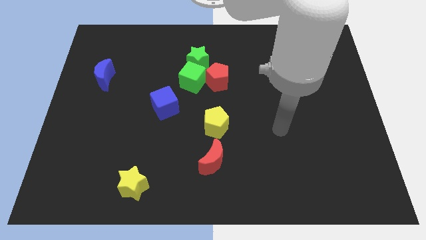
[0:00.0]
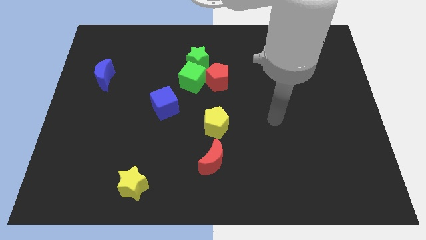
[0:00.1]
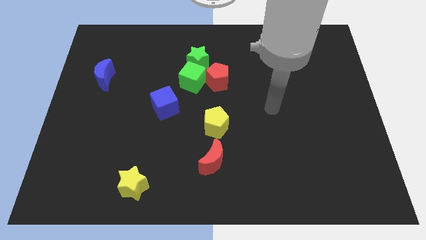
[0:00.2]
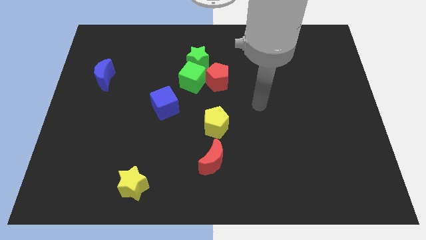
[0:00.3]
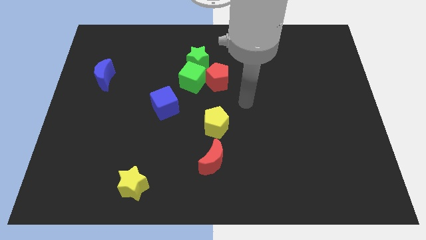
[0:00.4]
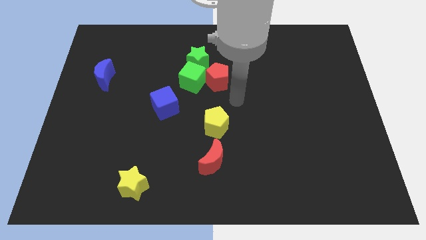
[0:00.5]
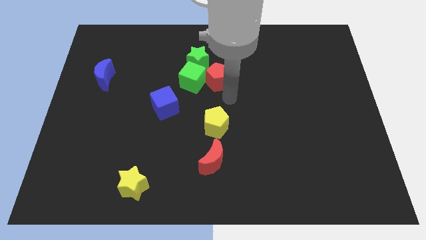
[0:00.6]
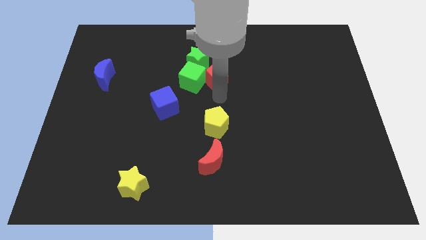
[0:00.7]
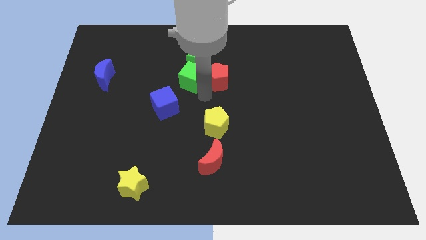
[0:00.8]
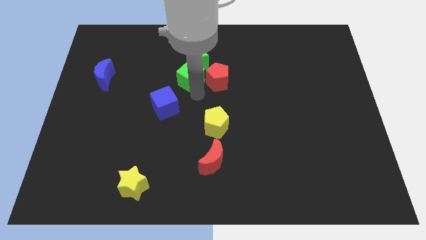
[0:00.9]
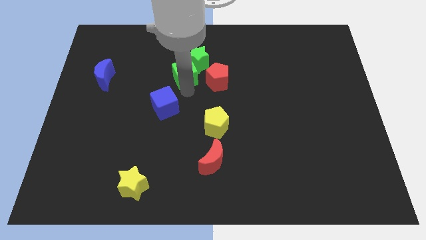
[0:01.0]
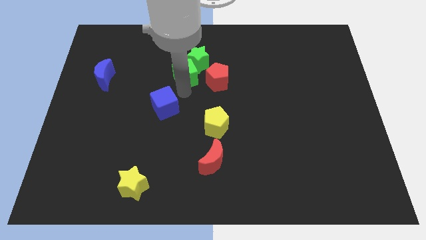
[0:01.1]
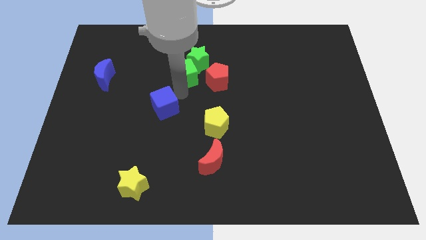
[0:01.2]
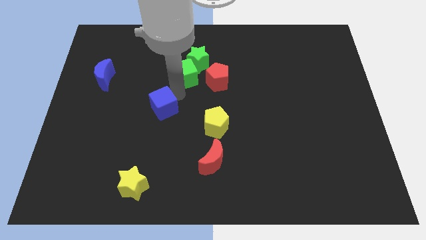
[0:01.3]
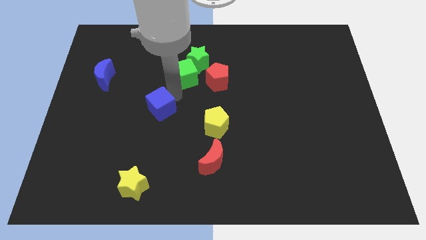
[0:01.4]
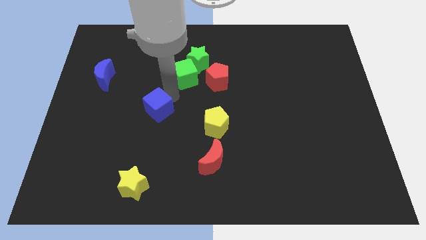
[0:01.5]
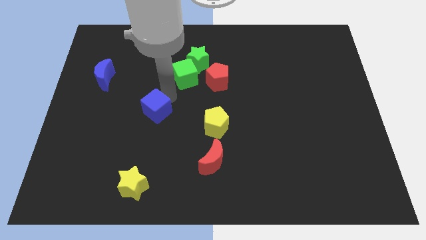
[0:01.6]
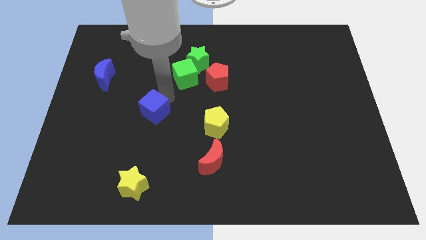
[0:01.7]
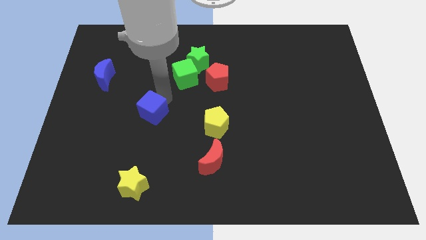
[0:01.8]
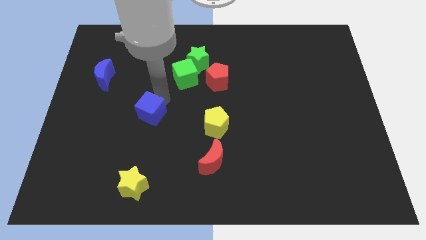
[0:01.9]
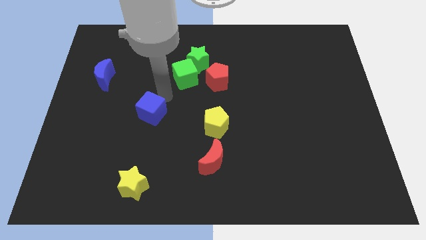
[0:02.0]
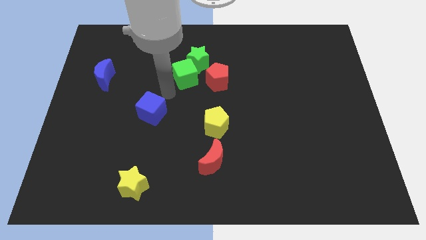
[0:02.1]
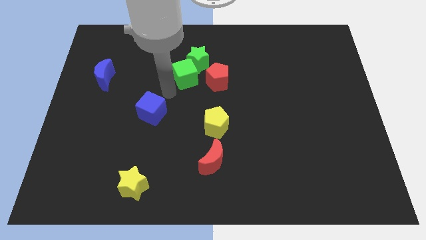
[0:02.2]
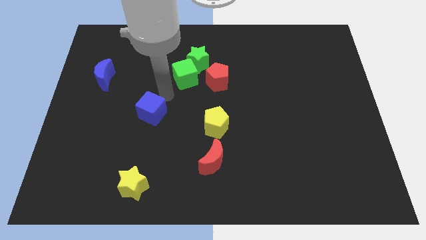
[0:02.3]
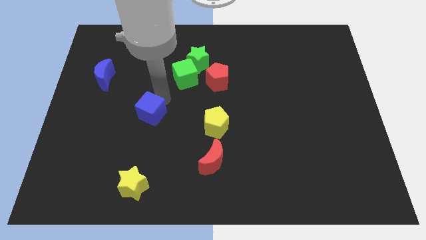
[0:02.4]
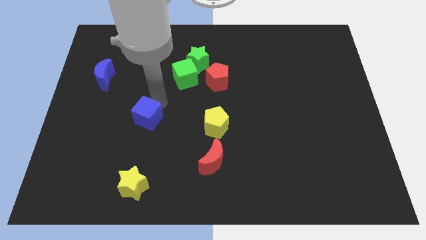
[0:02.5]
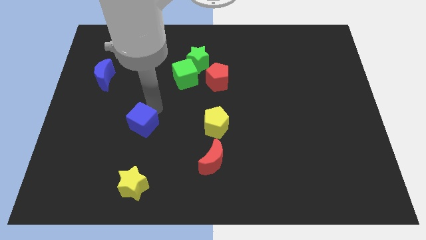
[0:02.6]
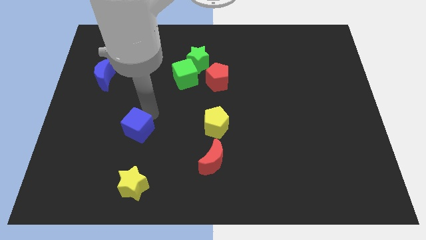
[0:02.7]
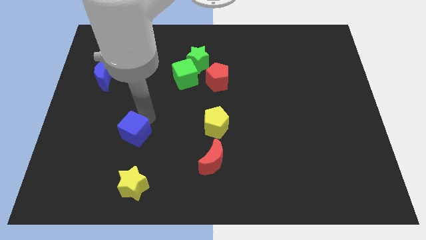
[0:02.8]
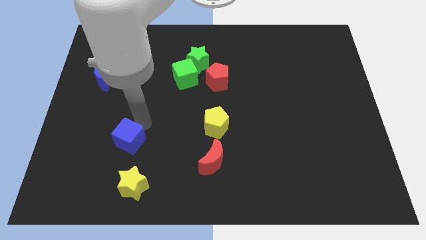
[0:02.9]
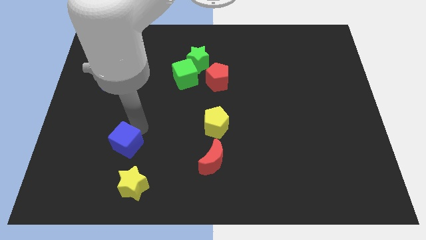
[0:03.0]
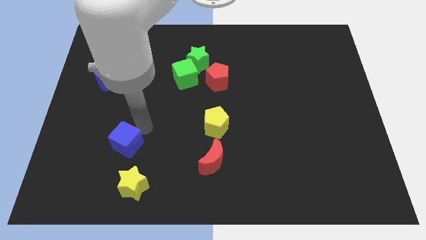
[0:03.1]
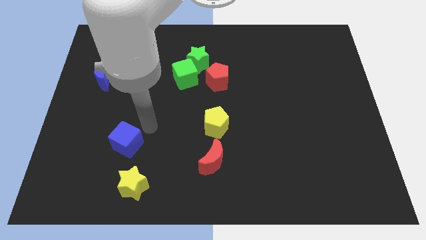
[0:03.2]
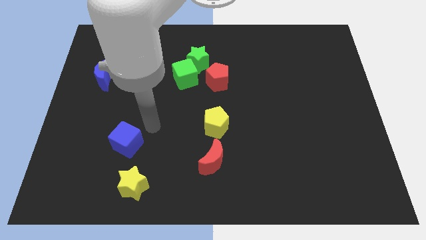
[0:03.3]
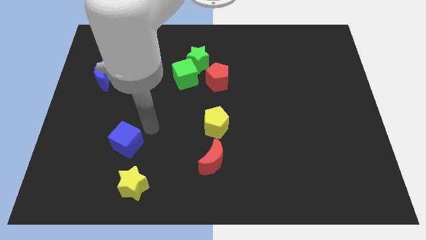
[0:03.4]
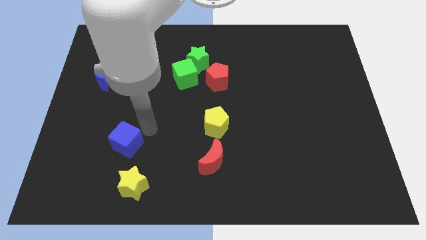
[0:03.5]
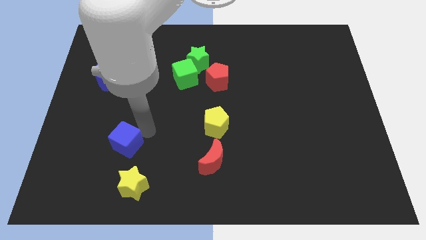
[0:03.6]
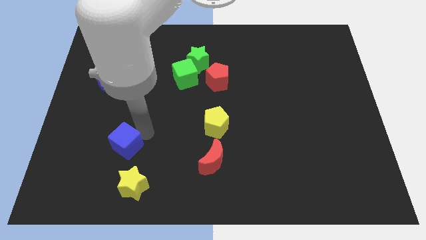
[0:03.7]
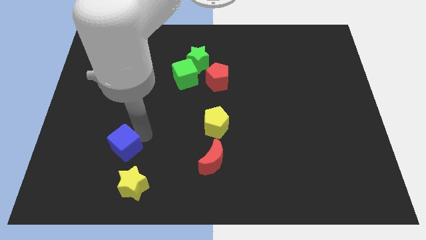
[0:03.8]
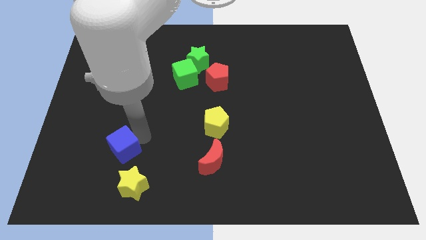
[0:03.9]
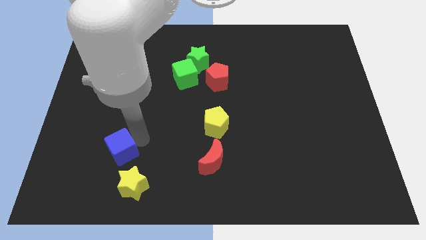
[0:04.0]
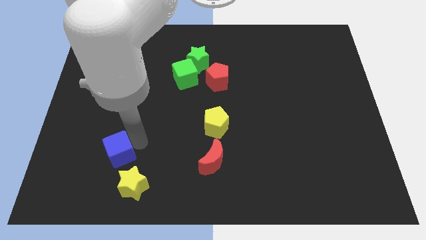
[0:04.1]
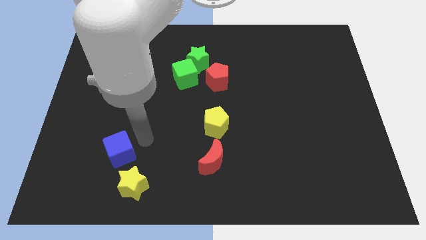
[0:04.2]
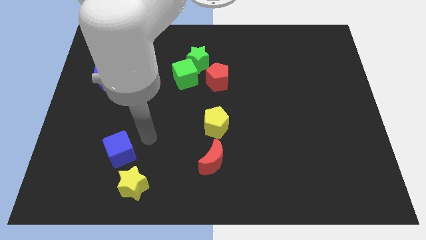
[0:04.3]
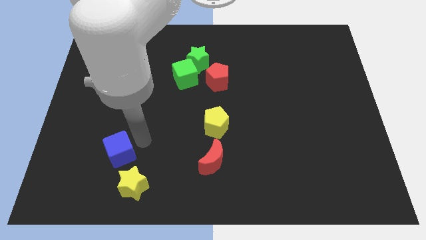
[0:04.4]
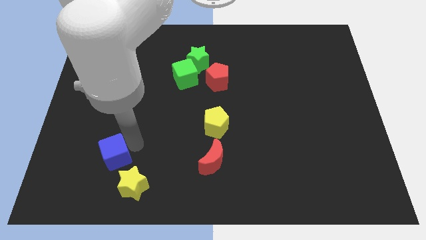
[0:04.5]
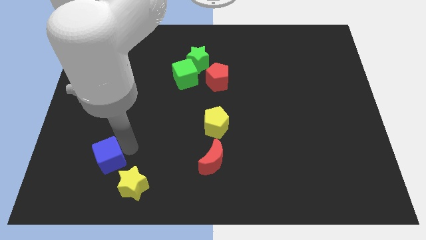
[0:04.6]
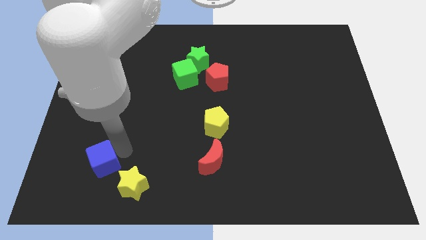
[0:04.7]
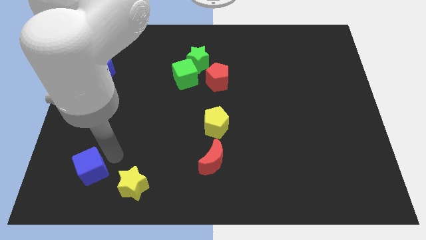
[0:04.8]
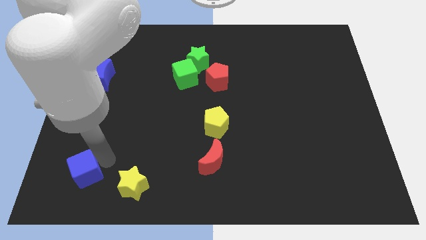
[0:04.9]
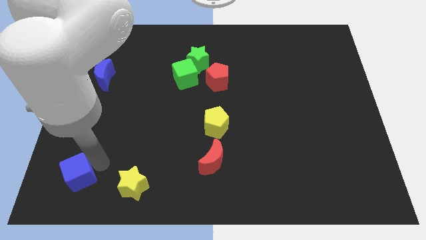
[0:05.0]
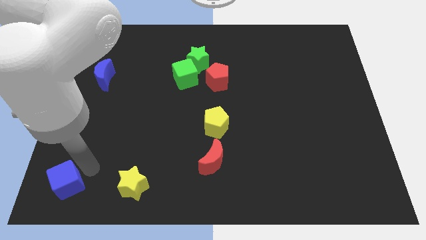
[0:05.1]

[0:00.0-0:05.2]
move the blue cube to the lower left corner

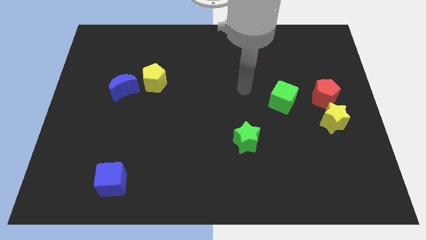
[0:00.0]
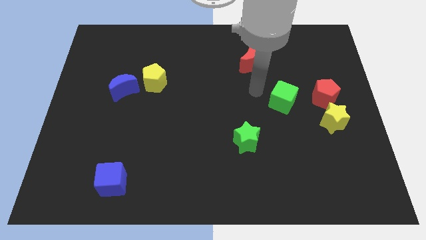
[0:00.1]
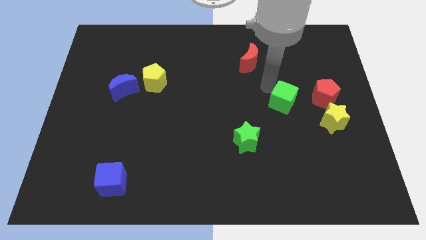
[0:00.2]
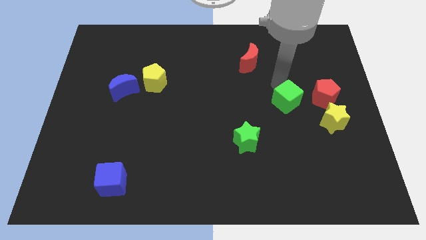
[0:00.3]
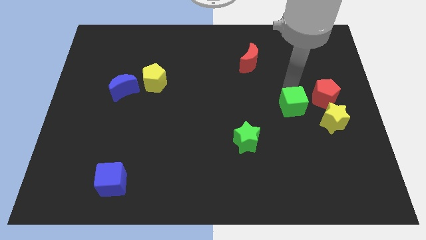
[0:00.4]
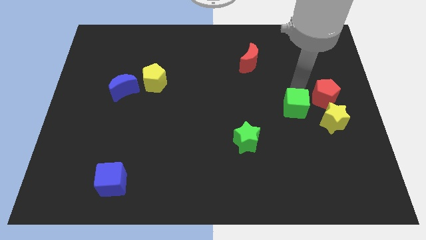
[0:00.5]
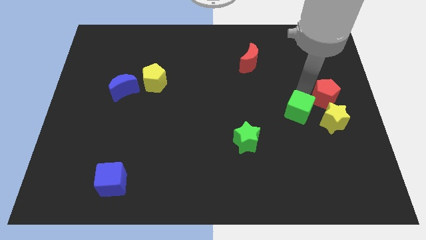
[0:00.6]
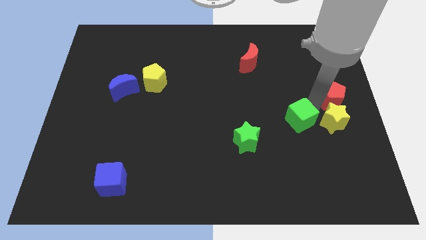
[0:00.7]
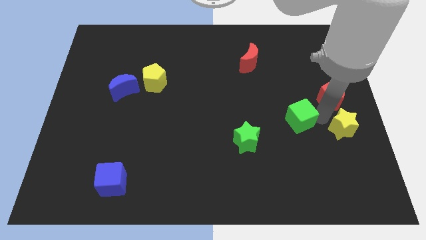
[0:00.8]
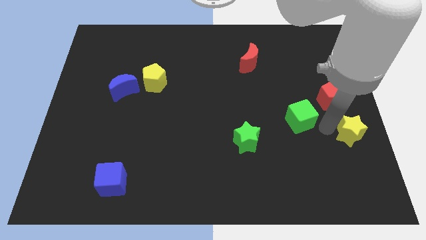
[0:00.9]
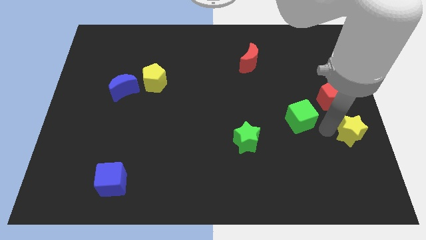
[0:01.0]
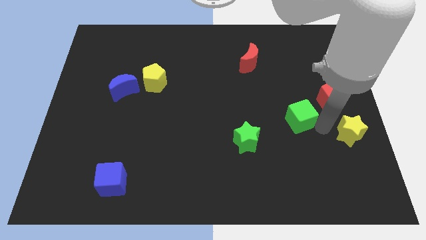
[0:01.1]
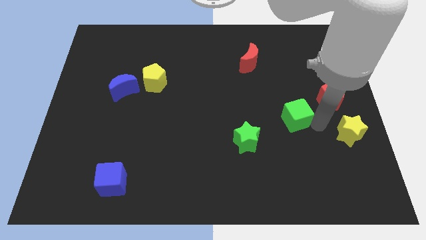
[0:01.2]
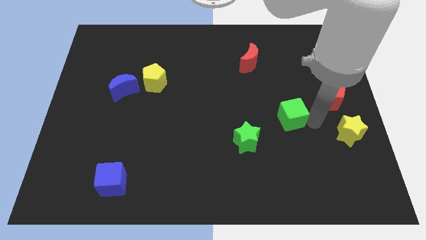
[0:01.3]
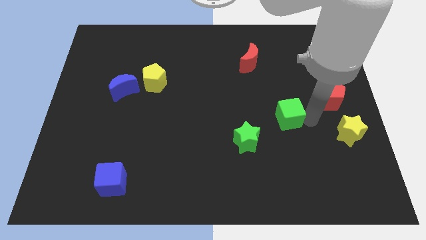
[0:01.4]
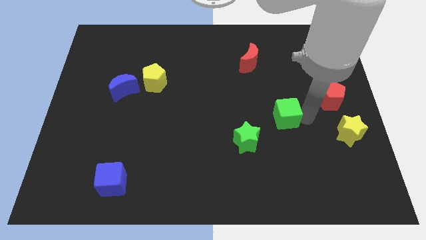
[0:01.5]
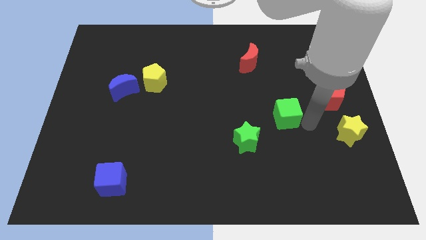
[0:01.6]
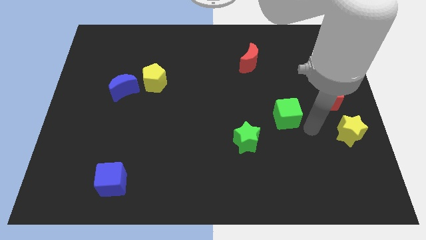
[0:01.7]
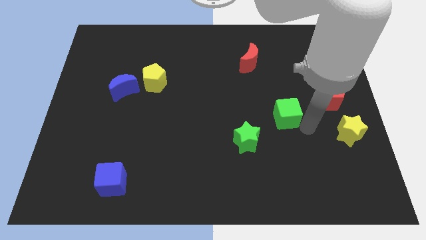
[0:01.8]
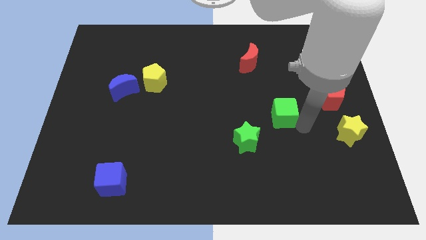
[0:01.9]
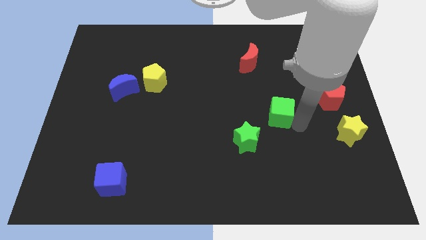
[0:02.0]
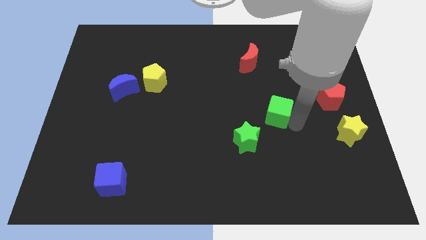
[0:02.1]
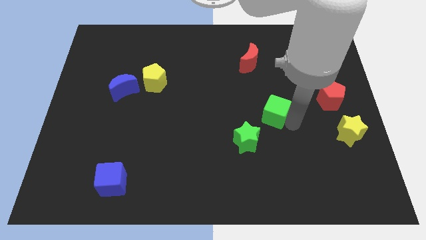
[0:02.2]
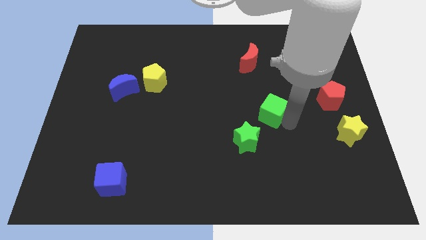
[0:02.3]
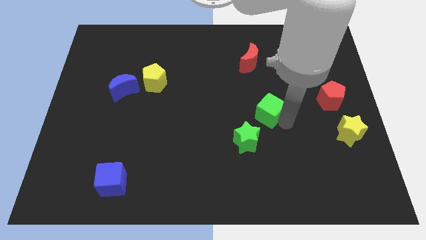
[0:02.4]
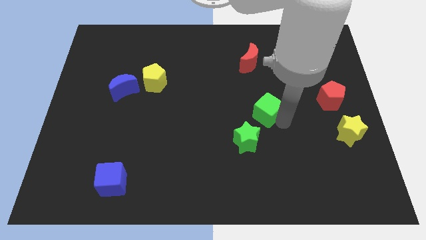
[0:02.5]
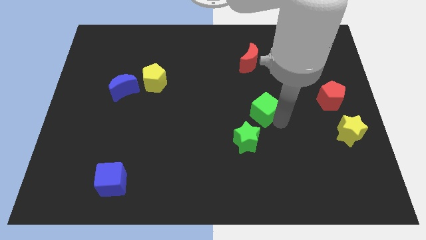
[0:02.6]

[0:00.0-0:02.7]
move the green cube to the middle
